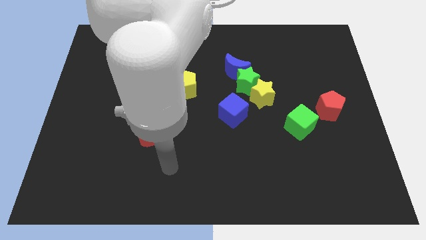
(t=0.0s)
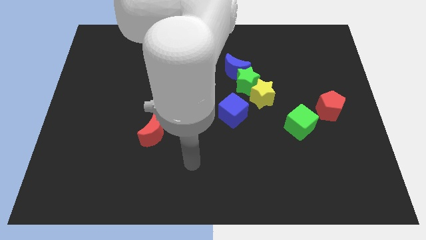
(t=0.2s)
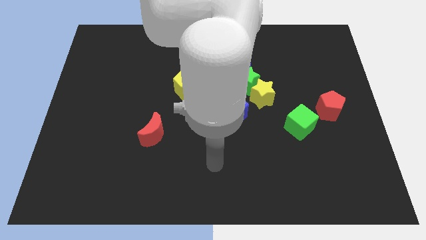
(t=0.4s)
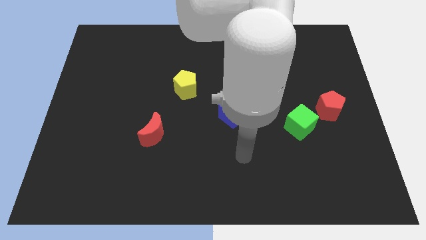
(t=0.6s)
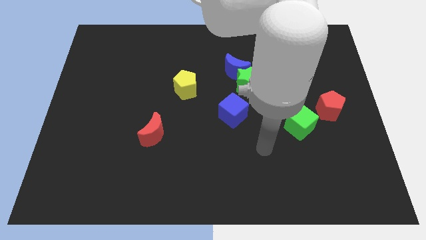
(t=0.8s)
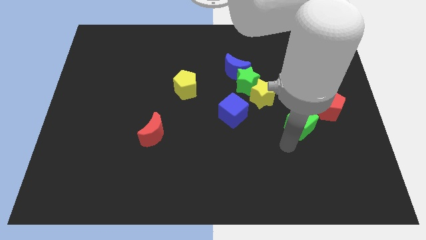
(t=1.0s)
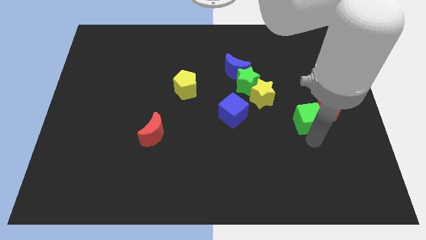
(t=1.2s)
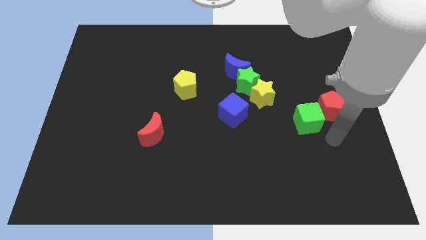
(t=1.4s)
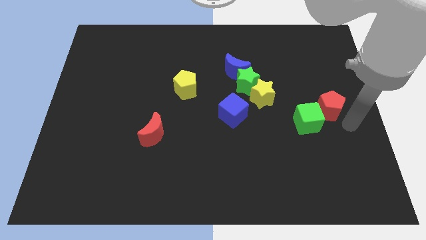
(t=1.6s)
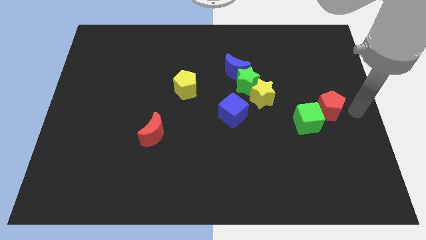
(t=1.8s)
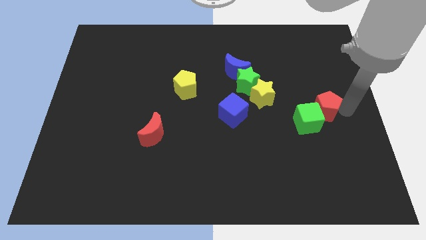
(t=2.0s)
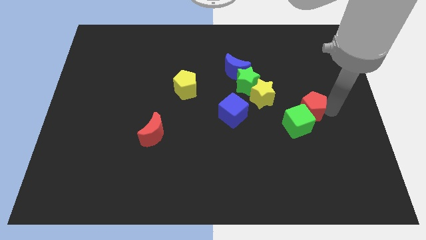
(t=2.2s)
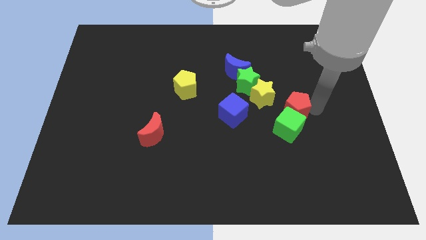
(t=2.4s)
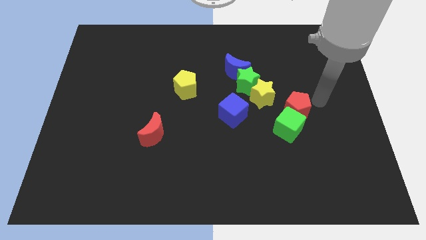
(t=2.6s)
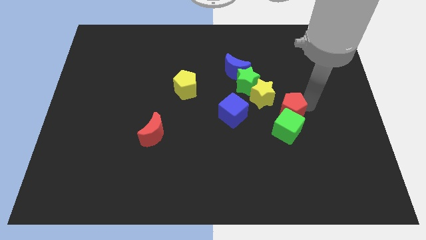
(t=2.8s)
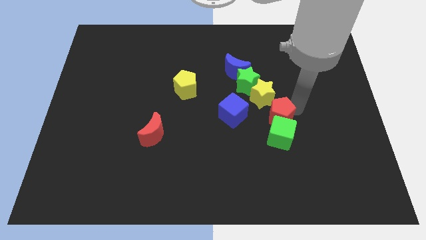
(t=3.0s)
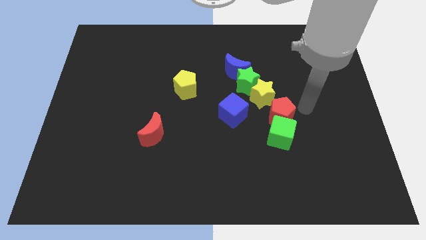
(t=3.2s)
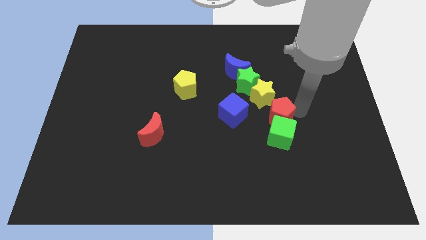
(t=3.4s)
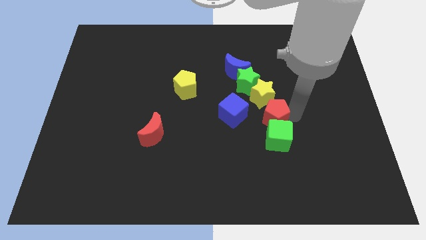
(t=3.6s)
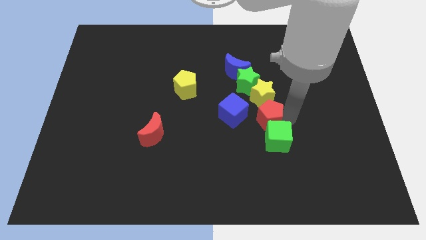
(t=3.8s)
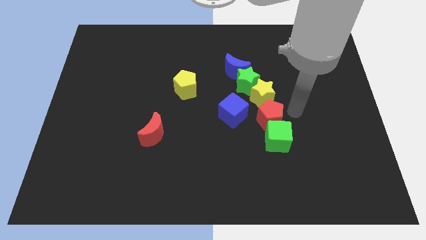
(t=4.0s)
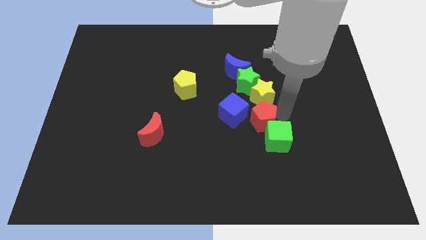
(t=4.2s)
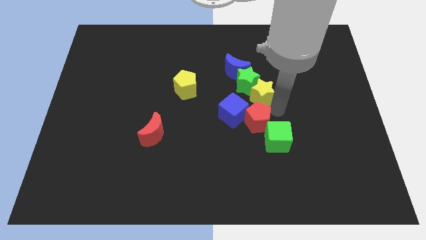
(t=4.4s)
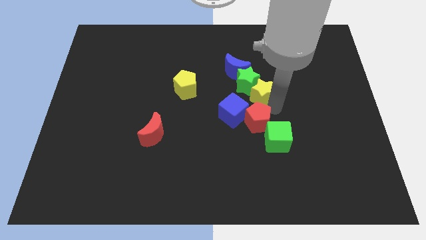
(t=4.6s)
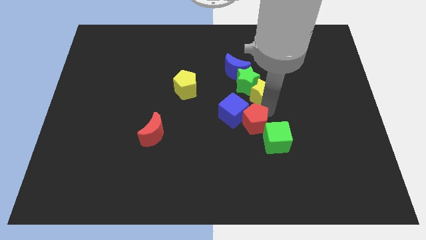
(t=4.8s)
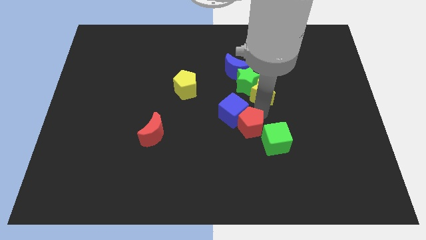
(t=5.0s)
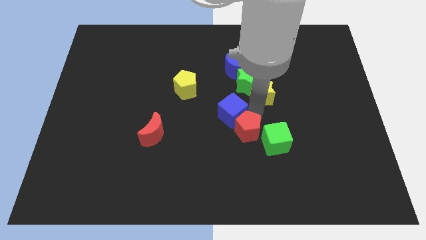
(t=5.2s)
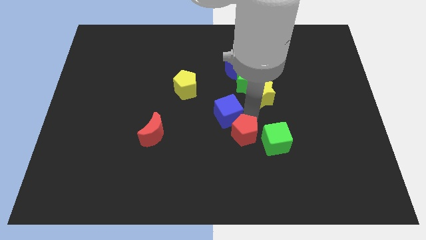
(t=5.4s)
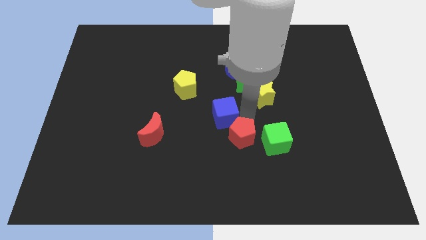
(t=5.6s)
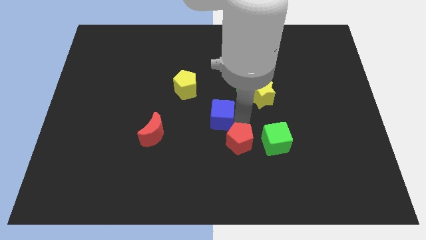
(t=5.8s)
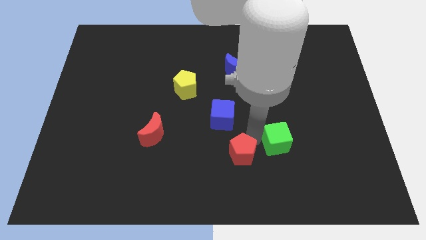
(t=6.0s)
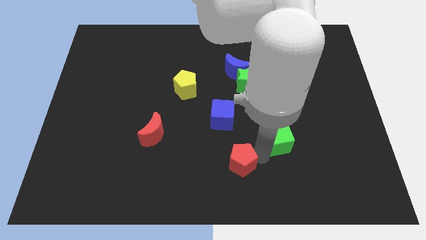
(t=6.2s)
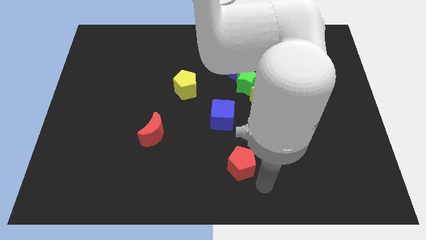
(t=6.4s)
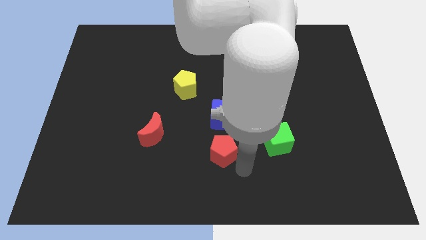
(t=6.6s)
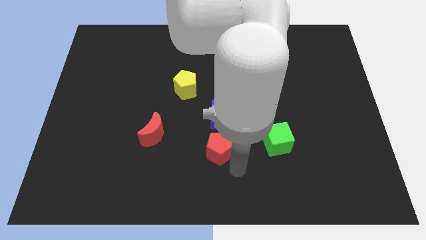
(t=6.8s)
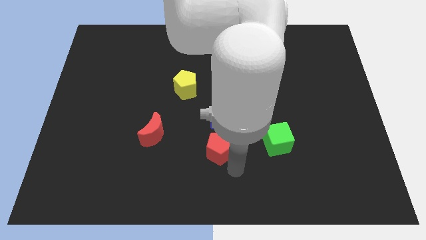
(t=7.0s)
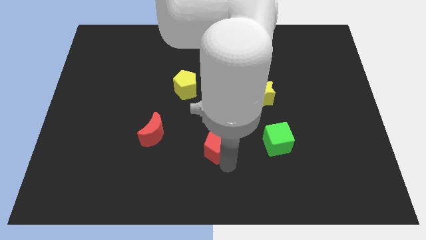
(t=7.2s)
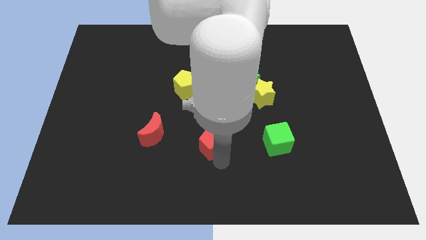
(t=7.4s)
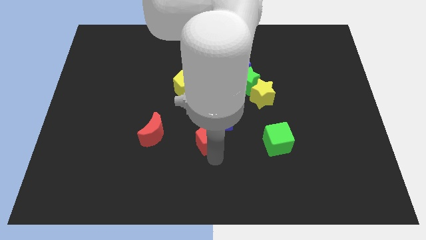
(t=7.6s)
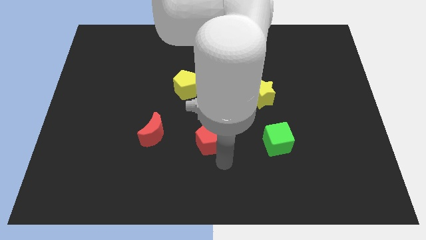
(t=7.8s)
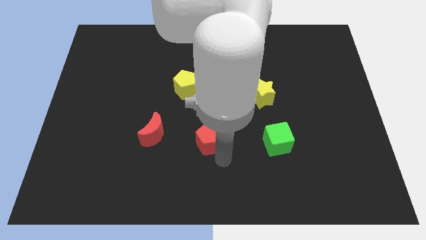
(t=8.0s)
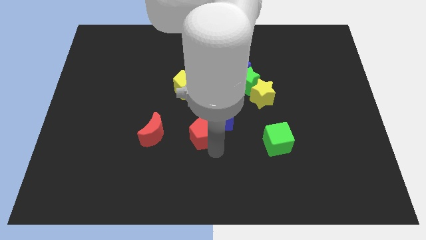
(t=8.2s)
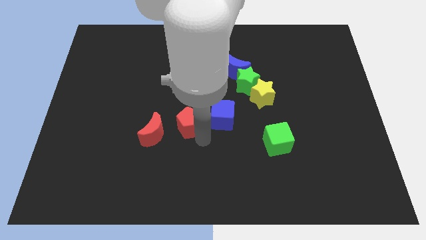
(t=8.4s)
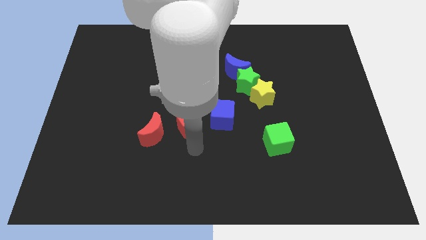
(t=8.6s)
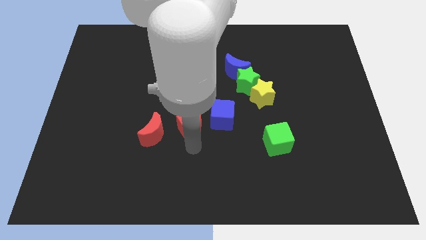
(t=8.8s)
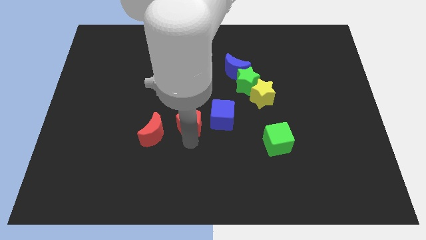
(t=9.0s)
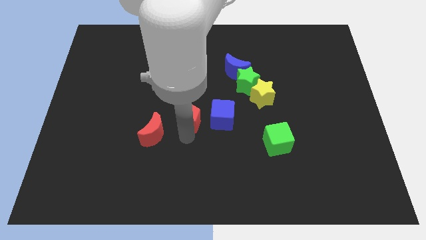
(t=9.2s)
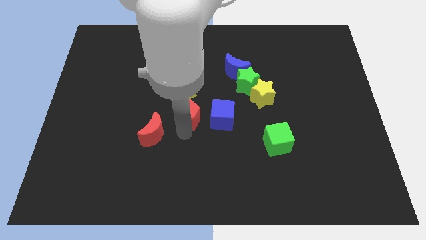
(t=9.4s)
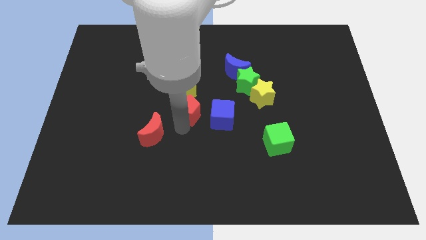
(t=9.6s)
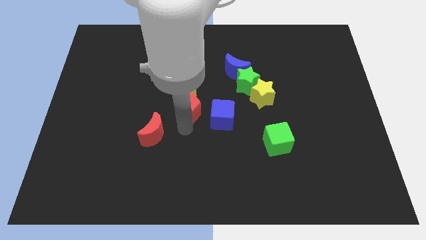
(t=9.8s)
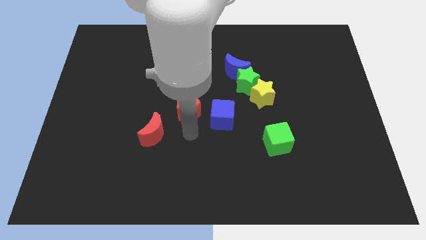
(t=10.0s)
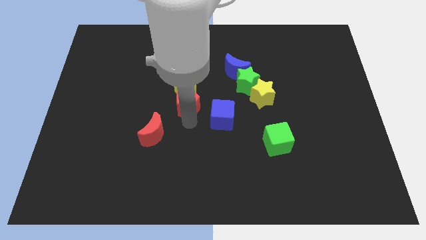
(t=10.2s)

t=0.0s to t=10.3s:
push the red pentagon to the yellow pentagon

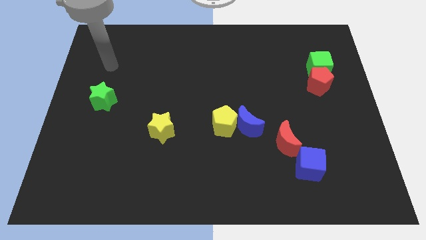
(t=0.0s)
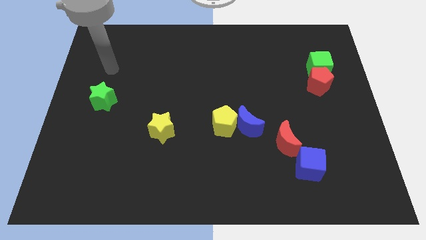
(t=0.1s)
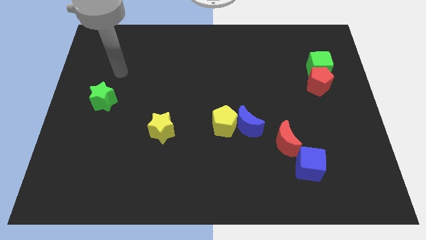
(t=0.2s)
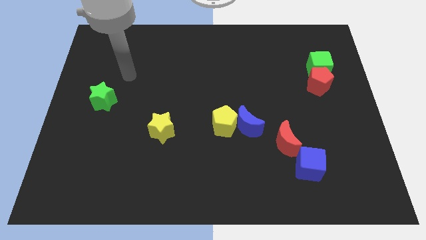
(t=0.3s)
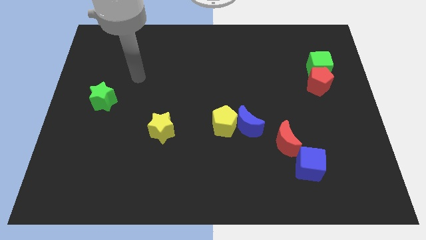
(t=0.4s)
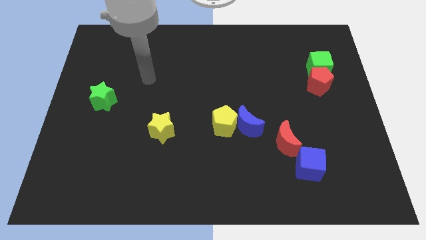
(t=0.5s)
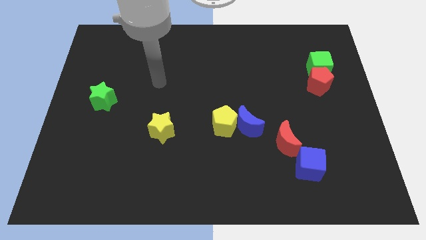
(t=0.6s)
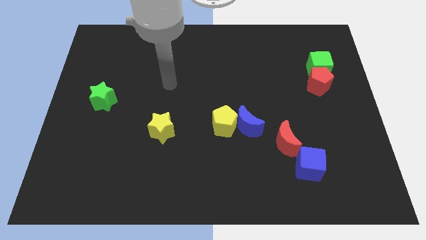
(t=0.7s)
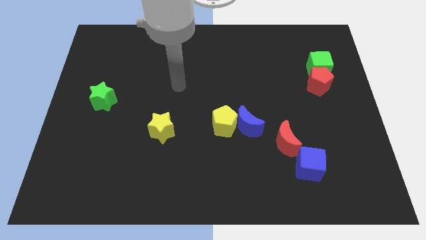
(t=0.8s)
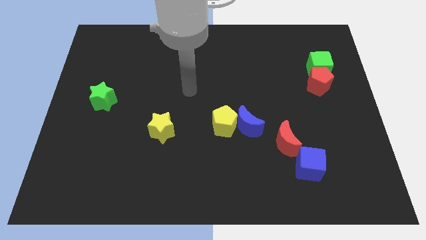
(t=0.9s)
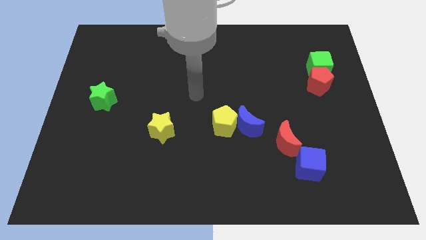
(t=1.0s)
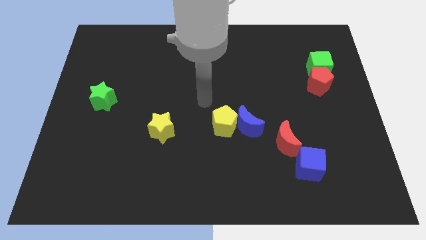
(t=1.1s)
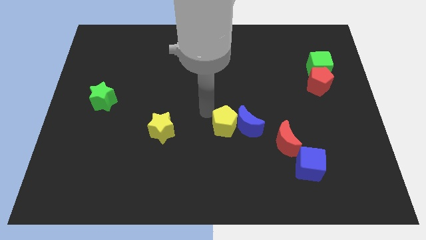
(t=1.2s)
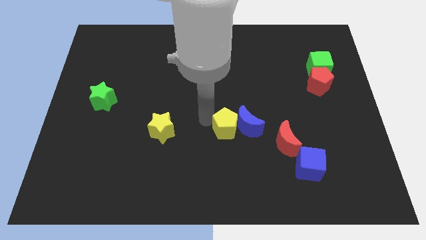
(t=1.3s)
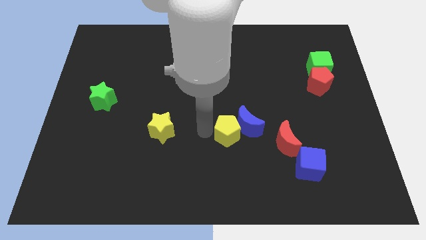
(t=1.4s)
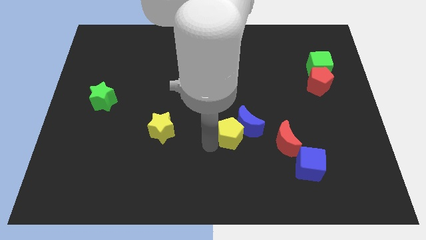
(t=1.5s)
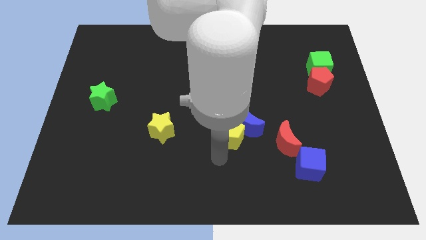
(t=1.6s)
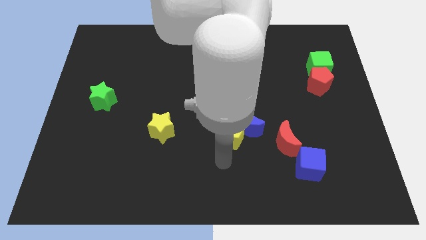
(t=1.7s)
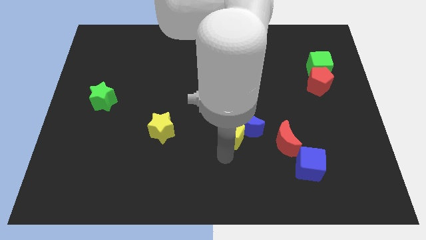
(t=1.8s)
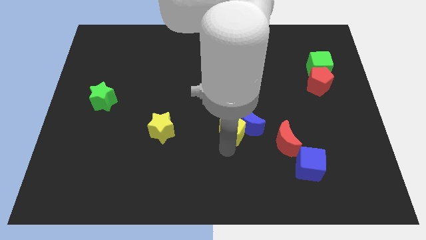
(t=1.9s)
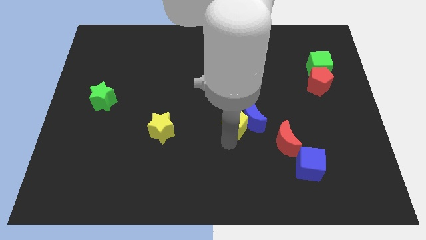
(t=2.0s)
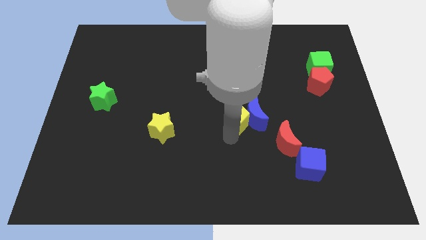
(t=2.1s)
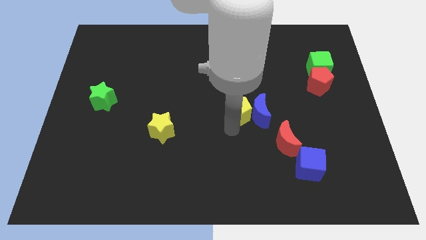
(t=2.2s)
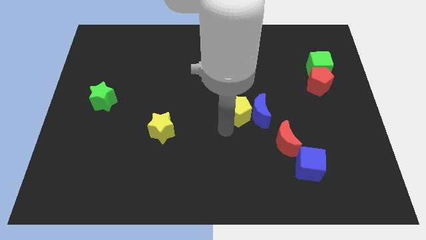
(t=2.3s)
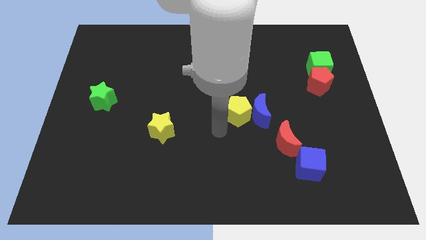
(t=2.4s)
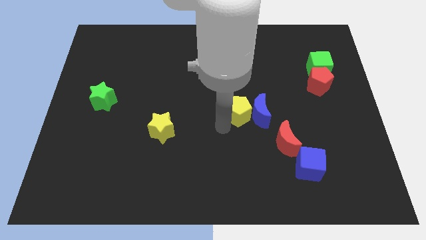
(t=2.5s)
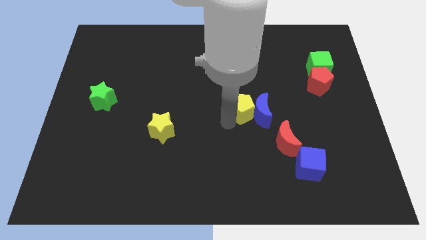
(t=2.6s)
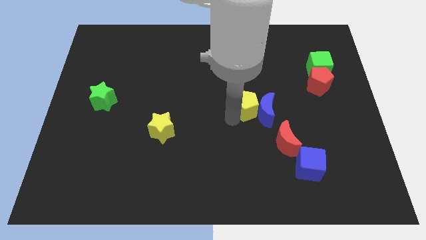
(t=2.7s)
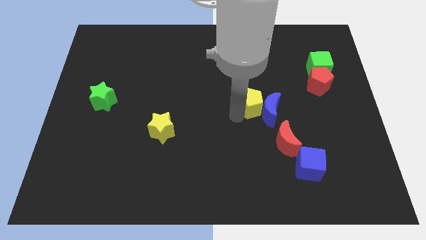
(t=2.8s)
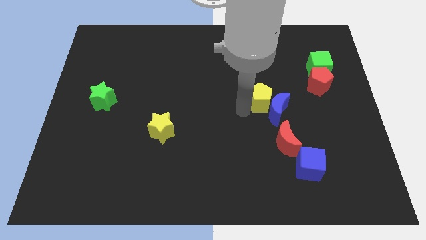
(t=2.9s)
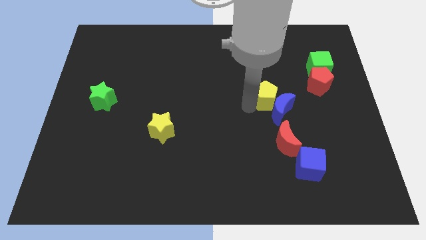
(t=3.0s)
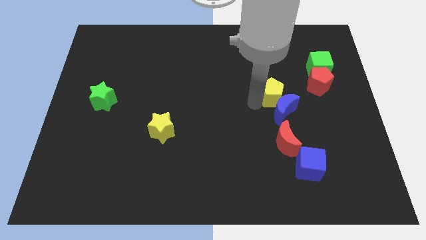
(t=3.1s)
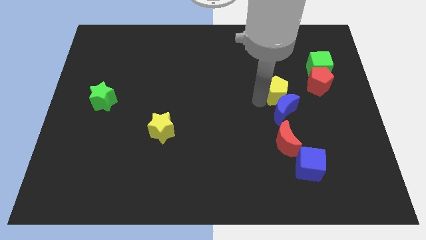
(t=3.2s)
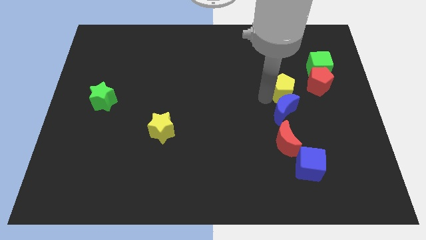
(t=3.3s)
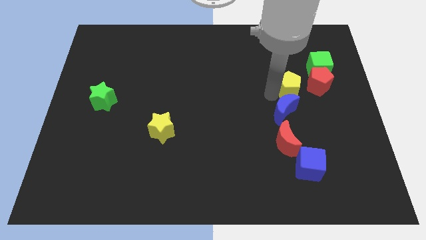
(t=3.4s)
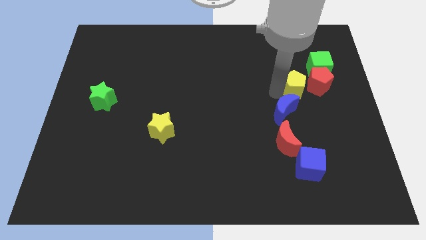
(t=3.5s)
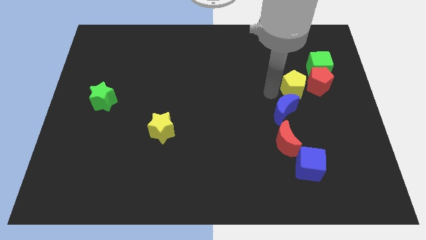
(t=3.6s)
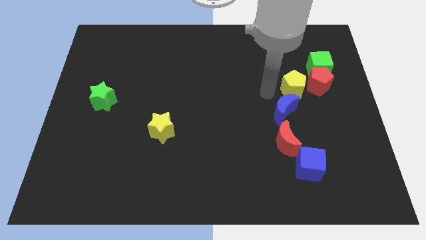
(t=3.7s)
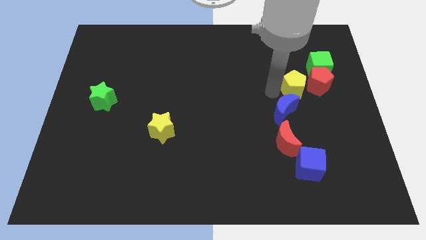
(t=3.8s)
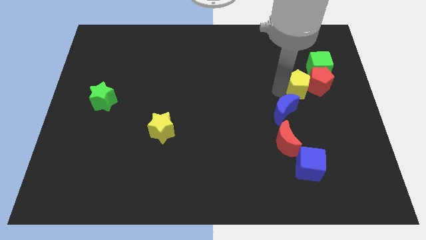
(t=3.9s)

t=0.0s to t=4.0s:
put the yellow pentagon towards the red pentagon
